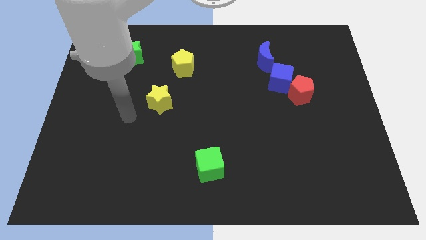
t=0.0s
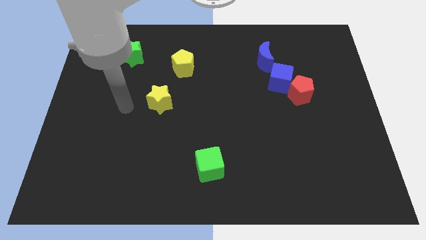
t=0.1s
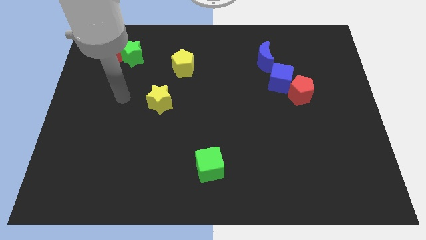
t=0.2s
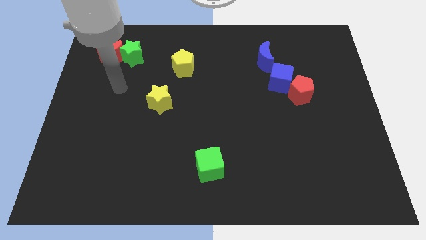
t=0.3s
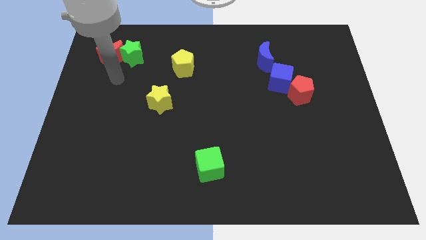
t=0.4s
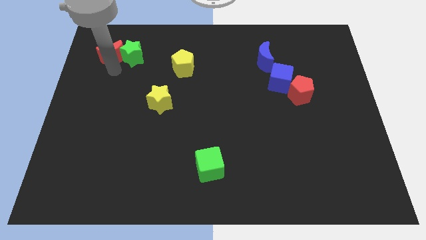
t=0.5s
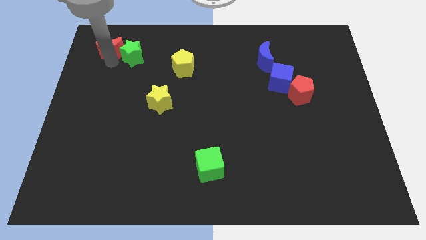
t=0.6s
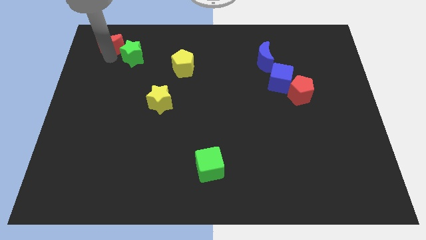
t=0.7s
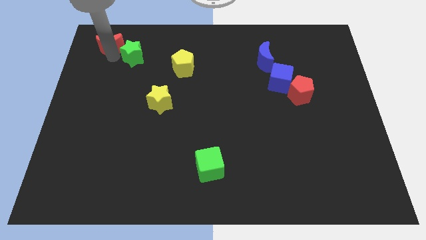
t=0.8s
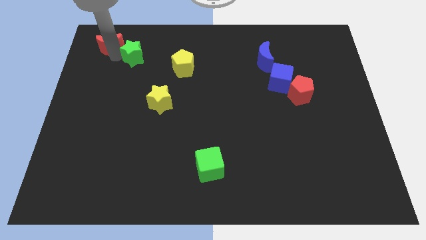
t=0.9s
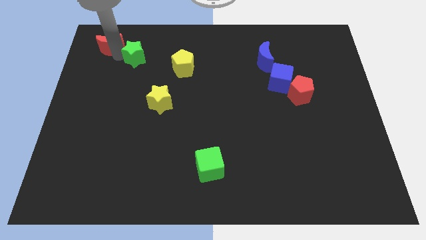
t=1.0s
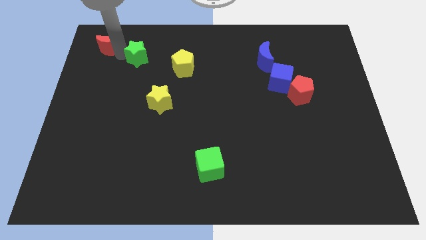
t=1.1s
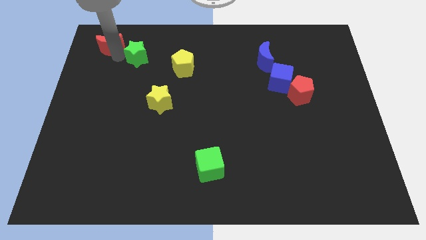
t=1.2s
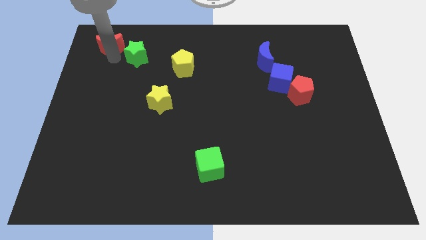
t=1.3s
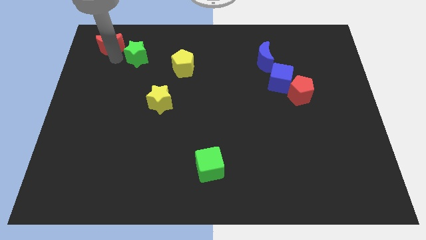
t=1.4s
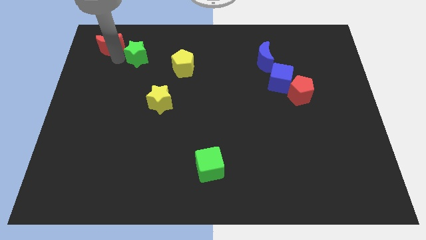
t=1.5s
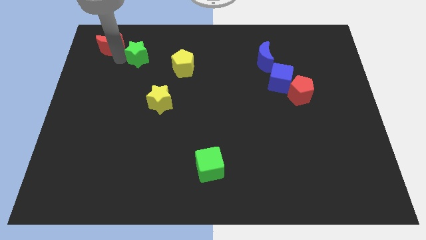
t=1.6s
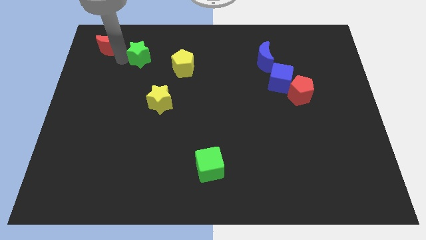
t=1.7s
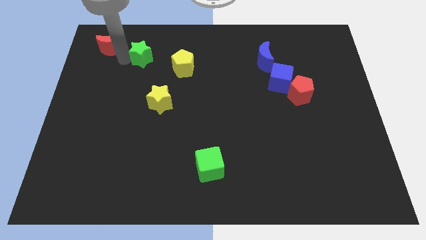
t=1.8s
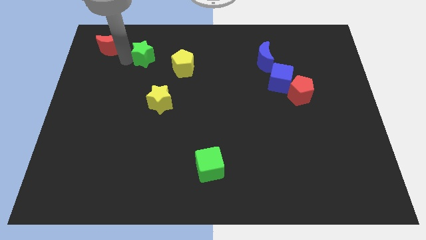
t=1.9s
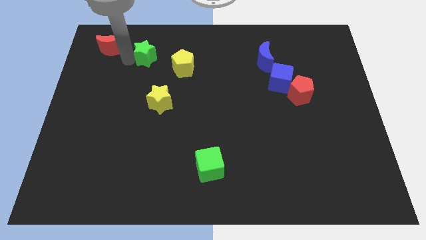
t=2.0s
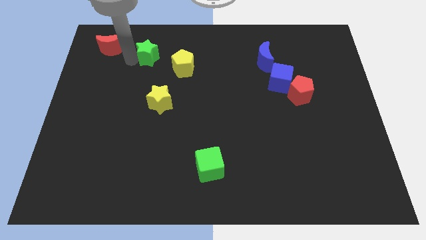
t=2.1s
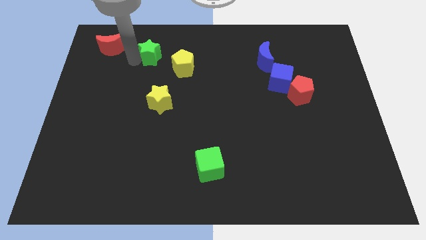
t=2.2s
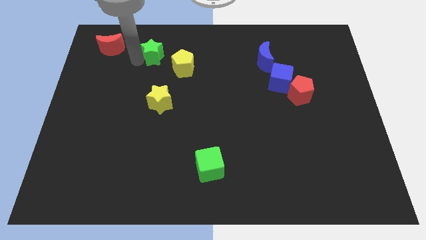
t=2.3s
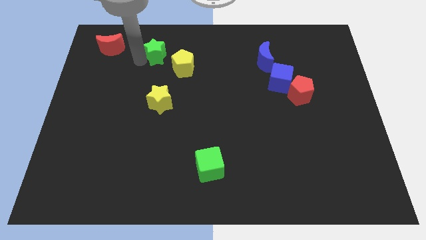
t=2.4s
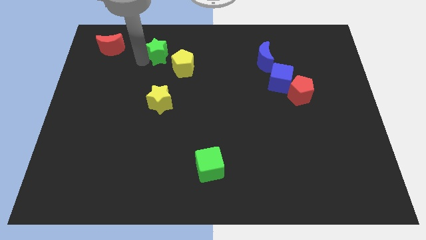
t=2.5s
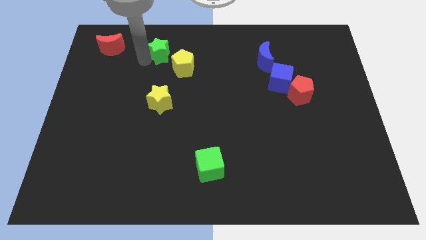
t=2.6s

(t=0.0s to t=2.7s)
slightly move the green star to the right

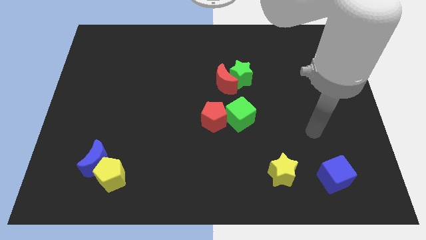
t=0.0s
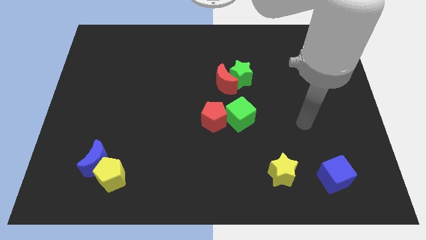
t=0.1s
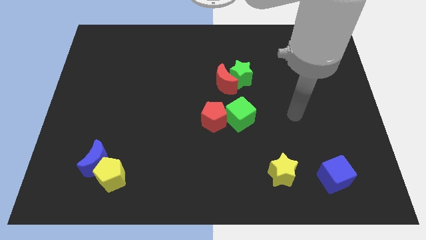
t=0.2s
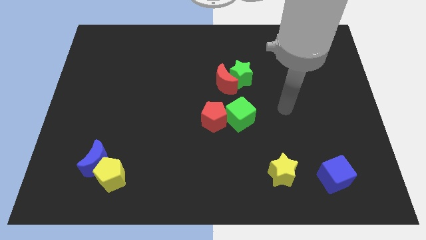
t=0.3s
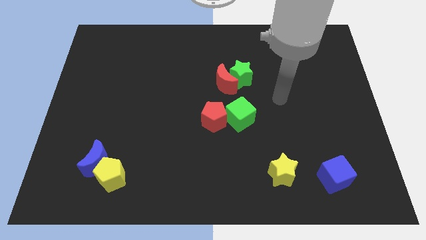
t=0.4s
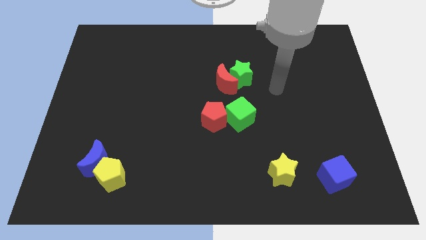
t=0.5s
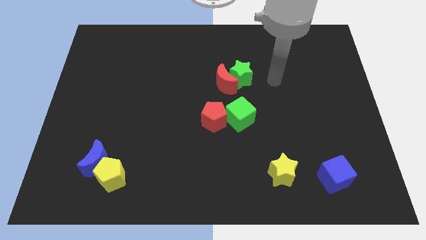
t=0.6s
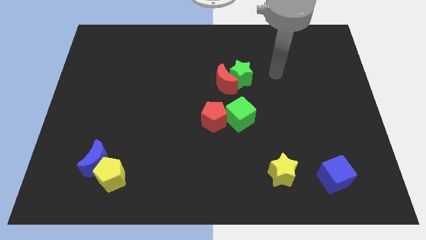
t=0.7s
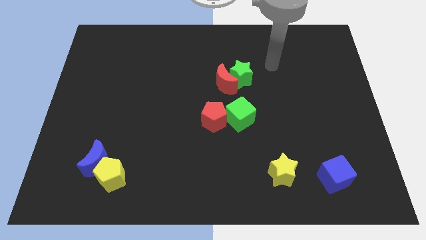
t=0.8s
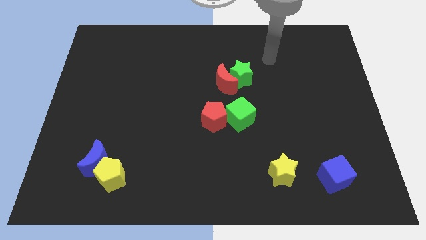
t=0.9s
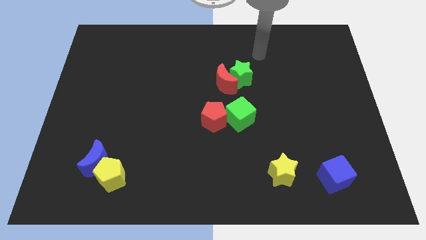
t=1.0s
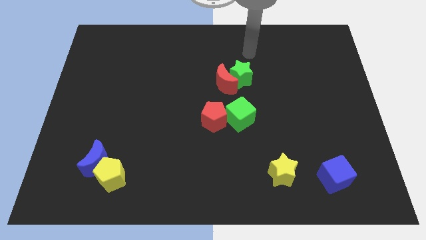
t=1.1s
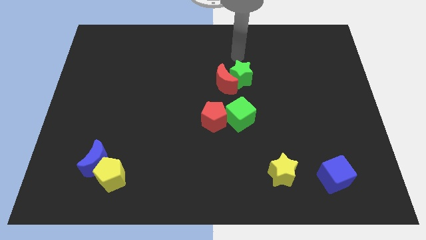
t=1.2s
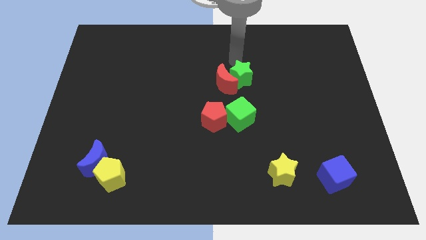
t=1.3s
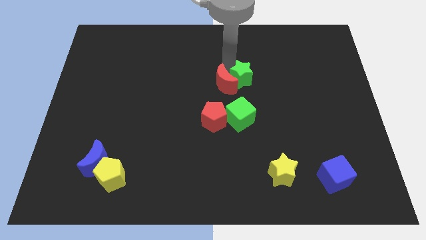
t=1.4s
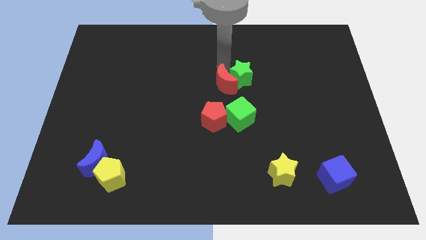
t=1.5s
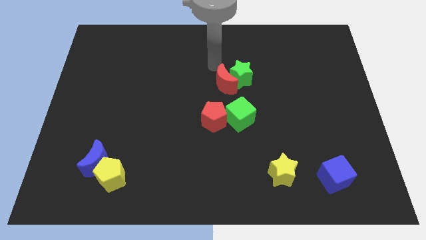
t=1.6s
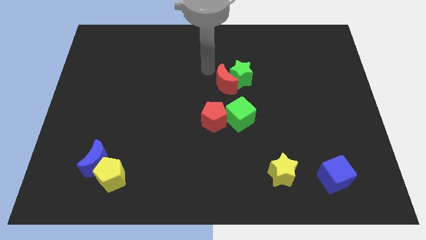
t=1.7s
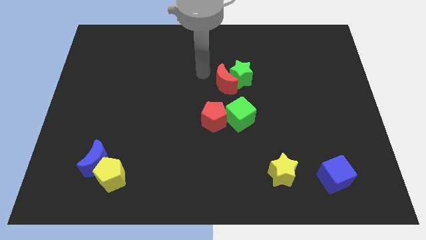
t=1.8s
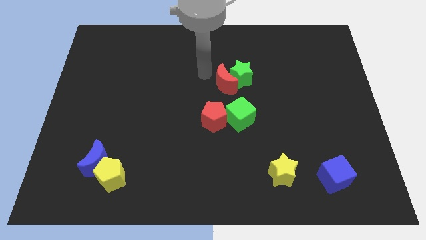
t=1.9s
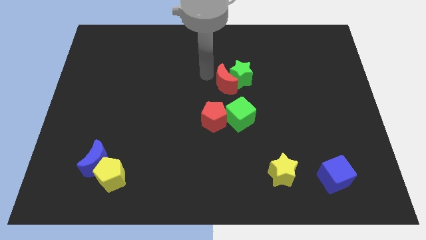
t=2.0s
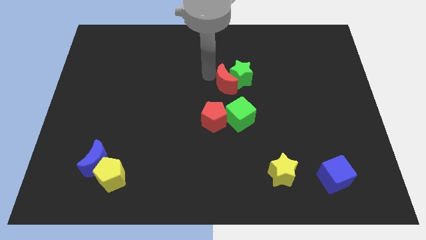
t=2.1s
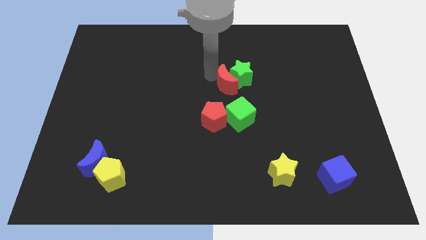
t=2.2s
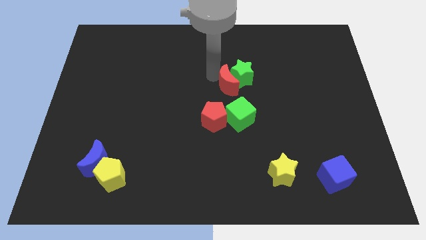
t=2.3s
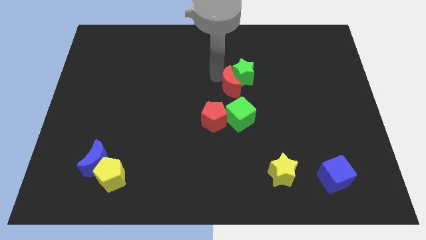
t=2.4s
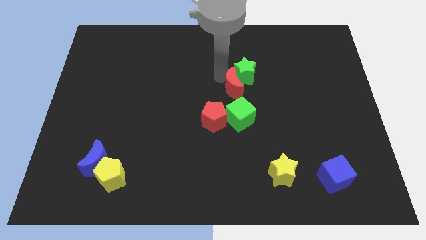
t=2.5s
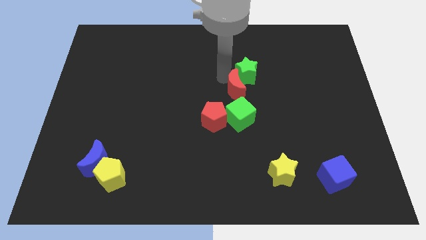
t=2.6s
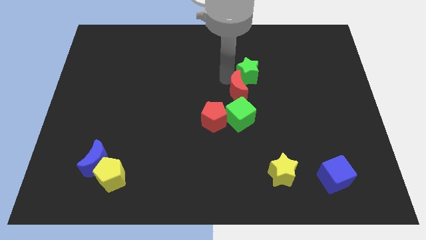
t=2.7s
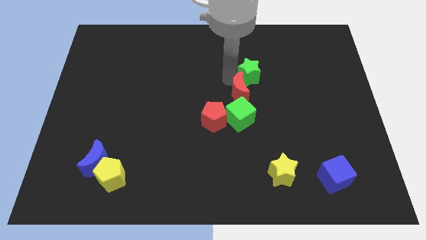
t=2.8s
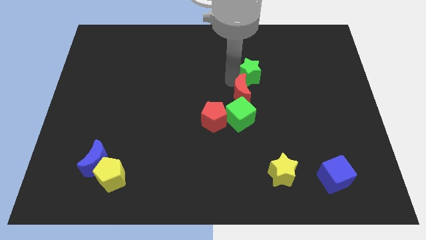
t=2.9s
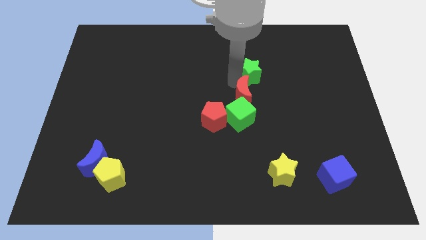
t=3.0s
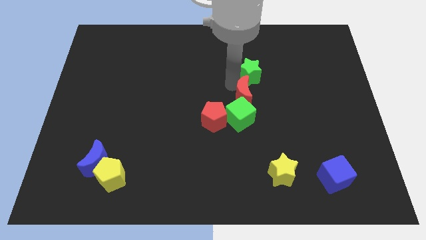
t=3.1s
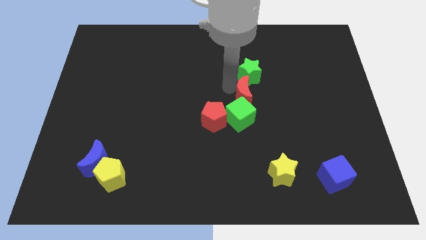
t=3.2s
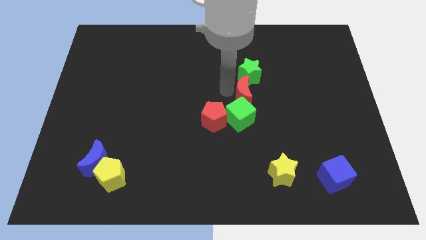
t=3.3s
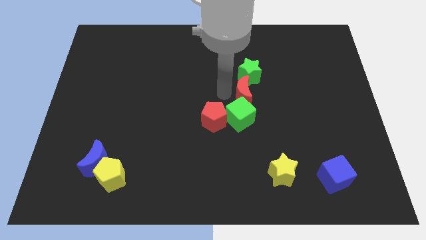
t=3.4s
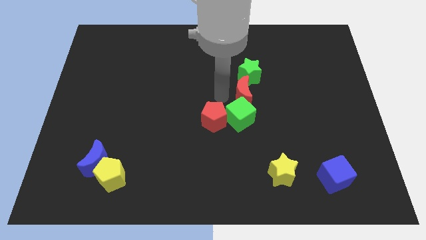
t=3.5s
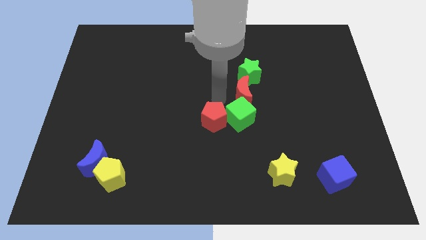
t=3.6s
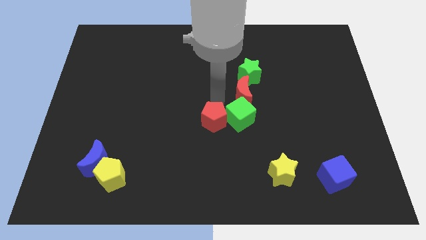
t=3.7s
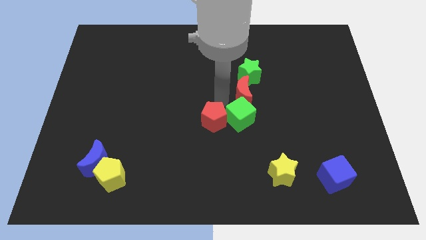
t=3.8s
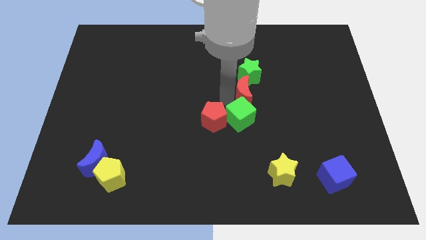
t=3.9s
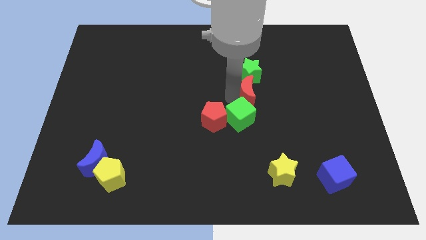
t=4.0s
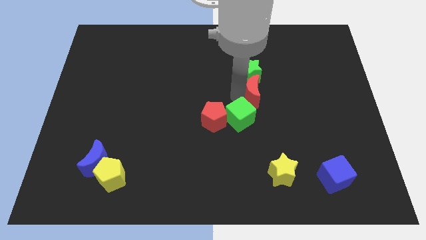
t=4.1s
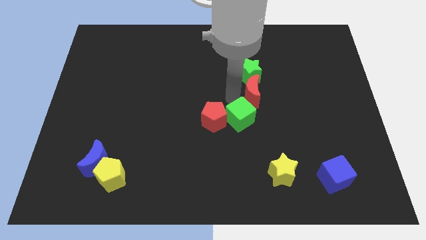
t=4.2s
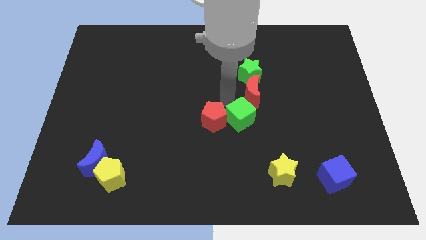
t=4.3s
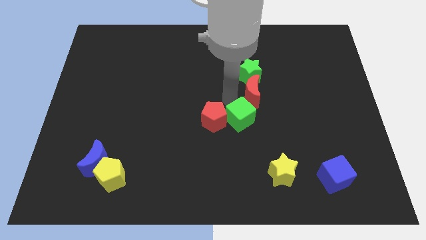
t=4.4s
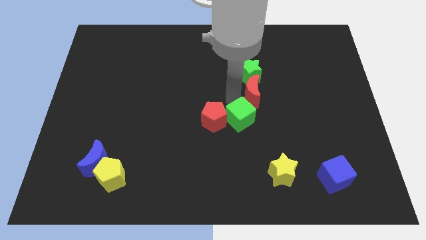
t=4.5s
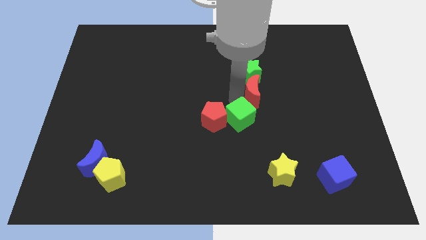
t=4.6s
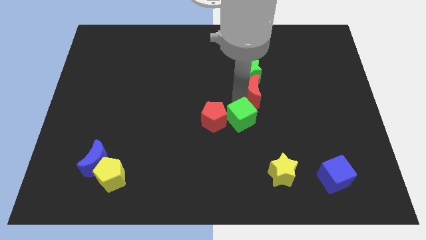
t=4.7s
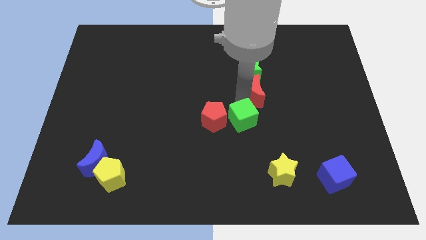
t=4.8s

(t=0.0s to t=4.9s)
move the red moon a little to the right

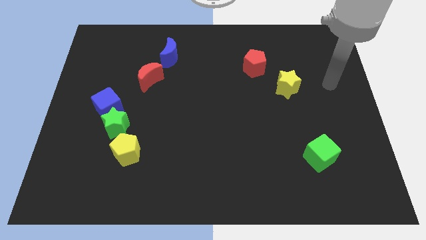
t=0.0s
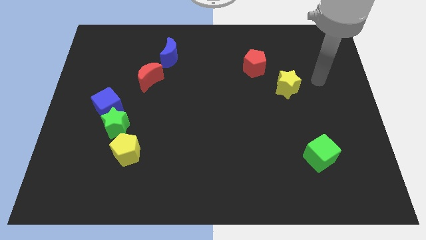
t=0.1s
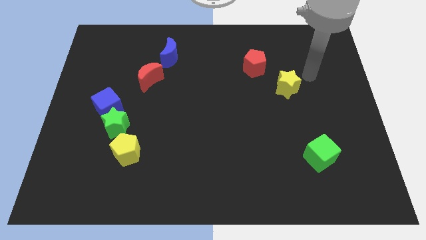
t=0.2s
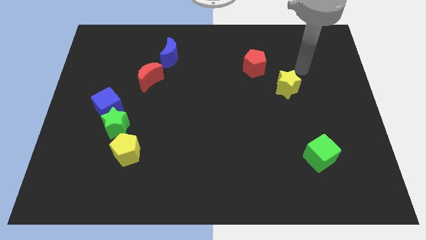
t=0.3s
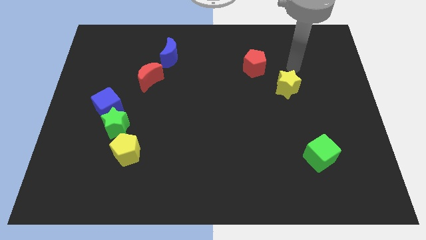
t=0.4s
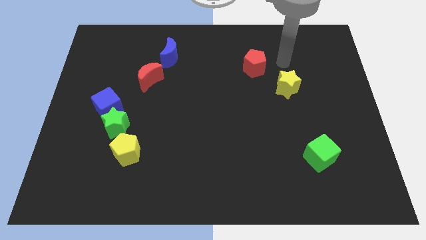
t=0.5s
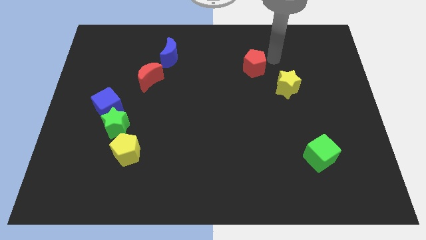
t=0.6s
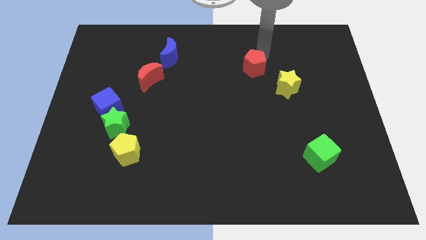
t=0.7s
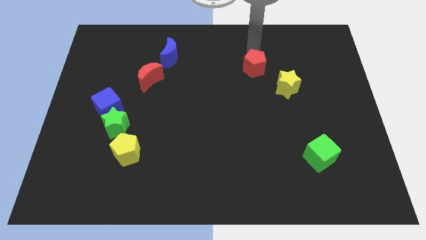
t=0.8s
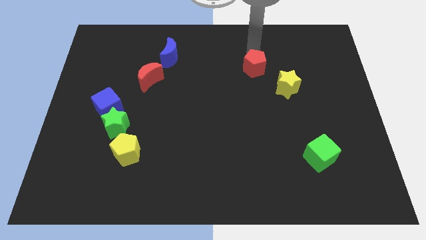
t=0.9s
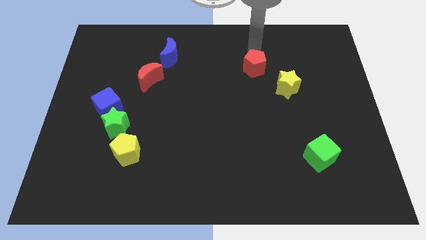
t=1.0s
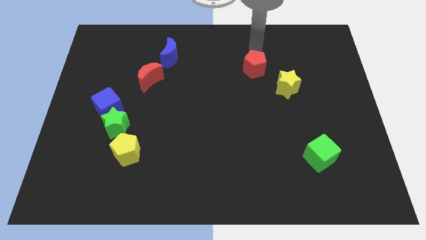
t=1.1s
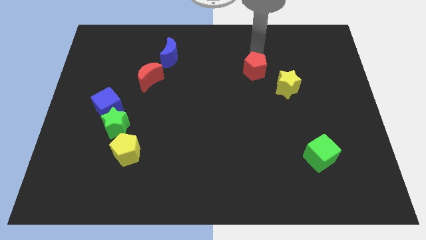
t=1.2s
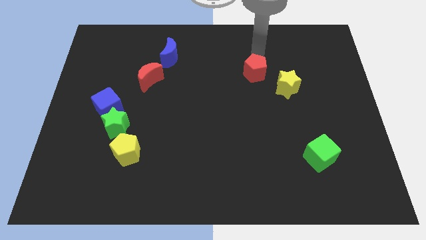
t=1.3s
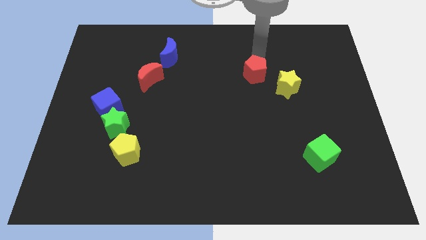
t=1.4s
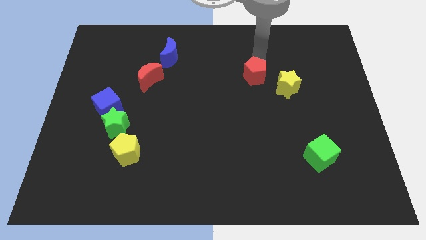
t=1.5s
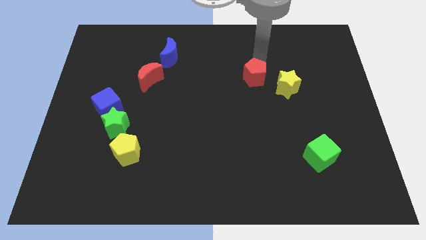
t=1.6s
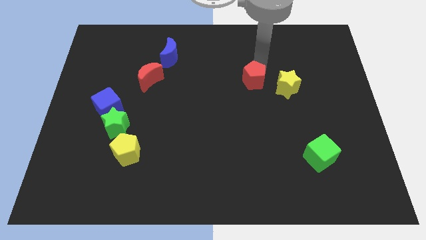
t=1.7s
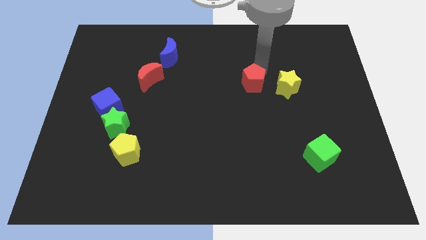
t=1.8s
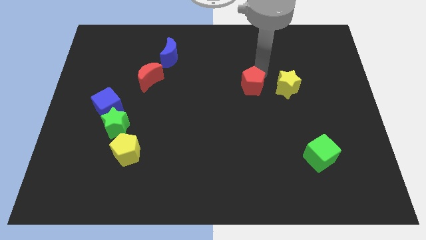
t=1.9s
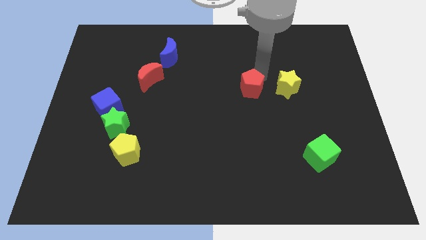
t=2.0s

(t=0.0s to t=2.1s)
push the red pentagon a little down
